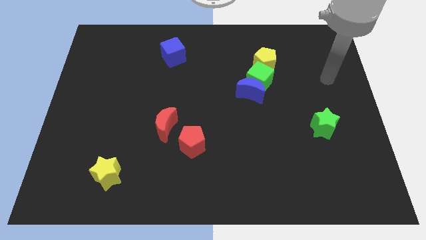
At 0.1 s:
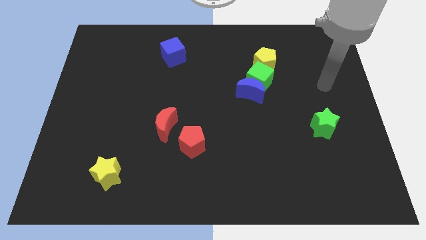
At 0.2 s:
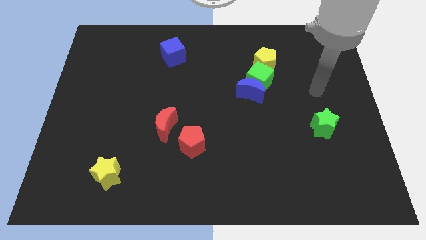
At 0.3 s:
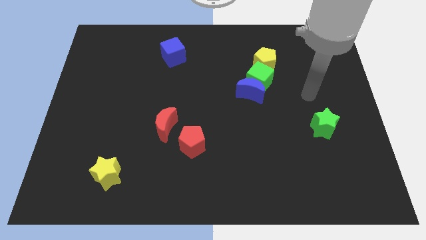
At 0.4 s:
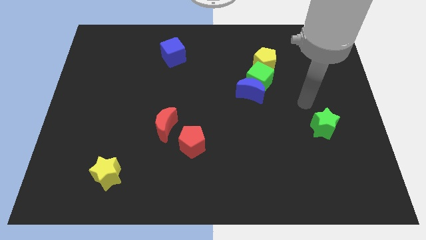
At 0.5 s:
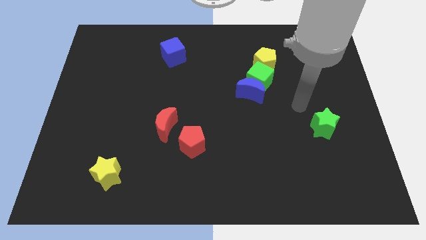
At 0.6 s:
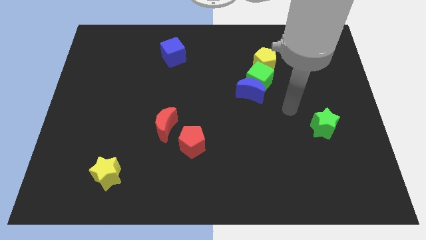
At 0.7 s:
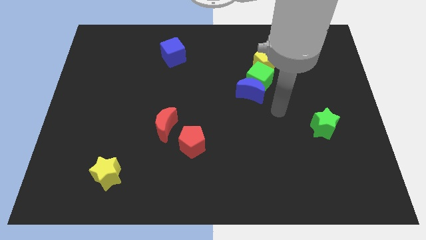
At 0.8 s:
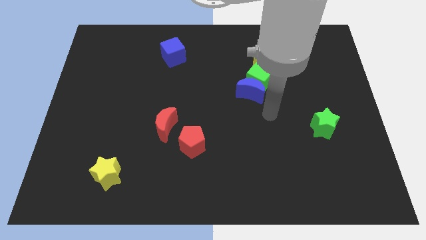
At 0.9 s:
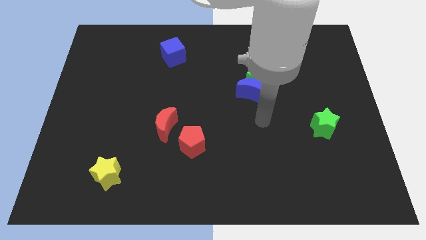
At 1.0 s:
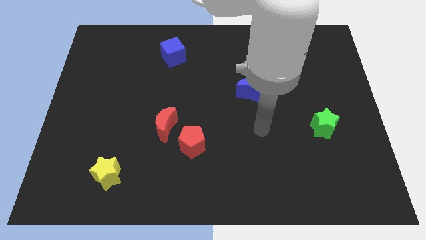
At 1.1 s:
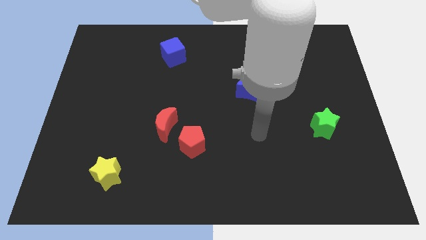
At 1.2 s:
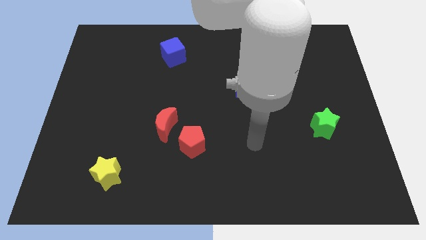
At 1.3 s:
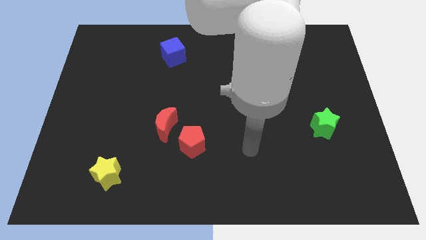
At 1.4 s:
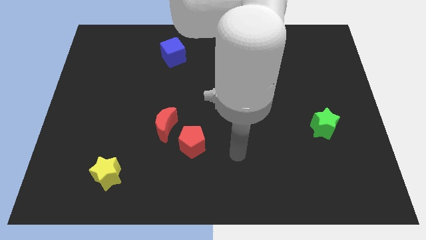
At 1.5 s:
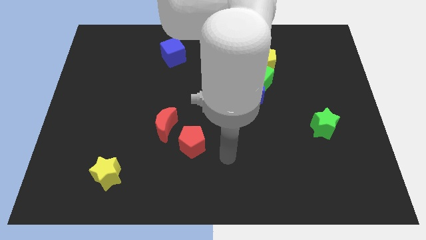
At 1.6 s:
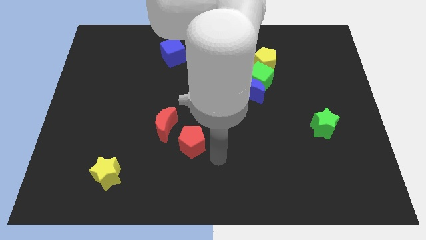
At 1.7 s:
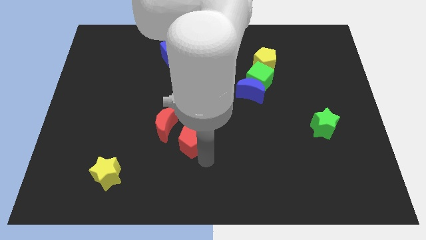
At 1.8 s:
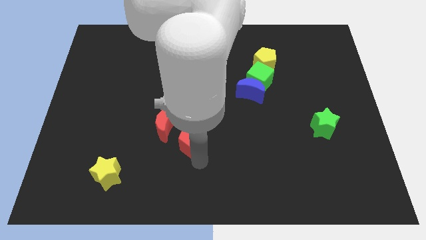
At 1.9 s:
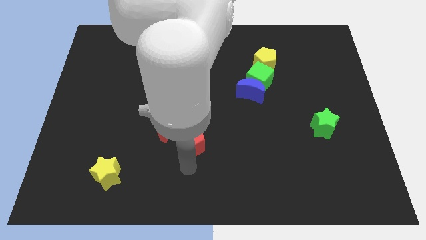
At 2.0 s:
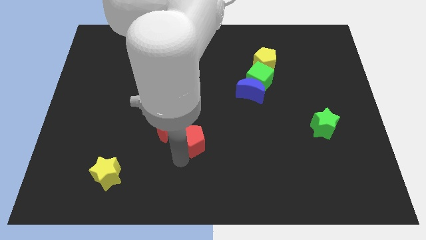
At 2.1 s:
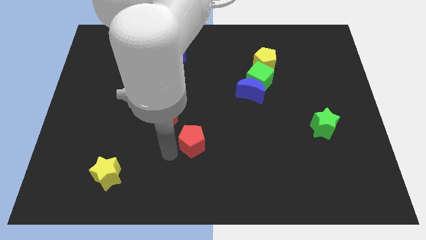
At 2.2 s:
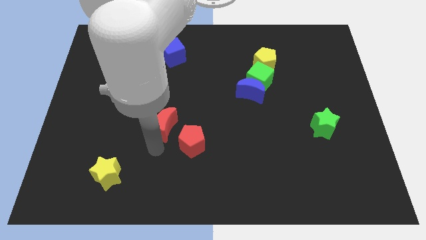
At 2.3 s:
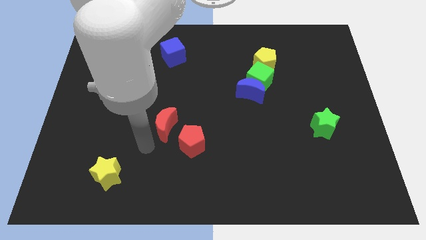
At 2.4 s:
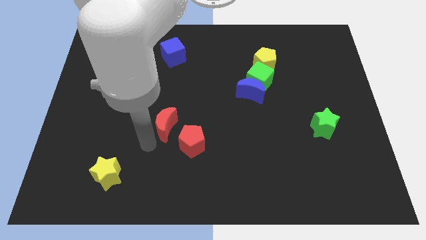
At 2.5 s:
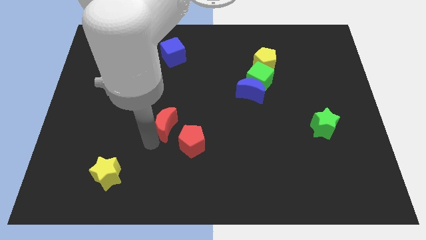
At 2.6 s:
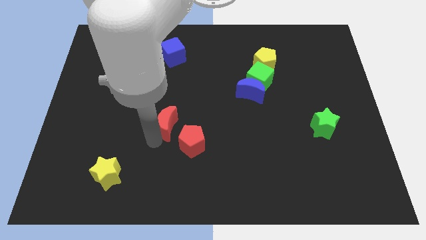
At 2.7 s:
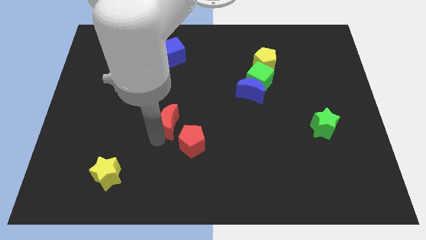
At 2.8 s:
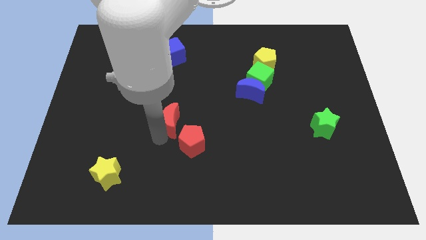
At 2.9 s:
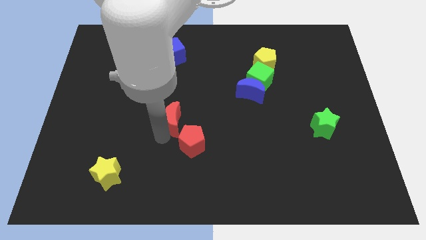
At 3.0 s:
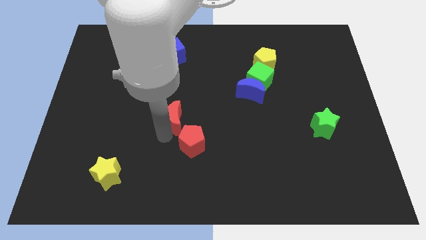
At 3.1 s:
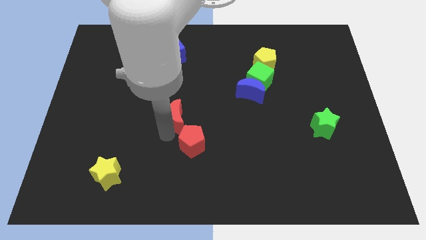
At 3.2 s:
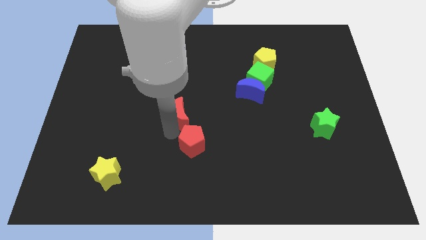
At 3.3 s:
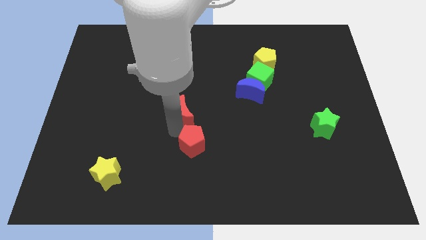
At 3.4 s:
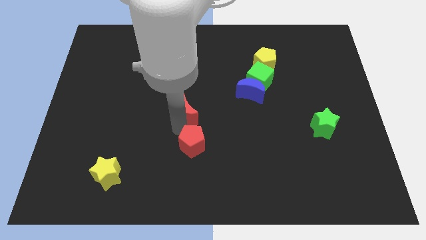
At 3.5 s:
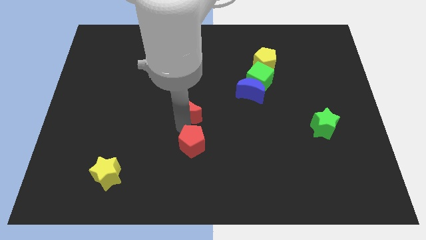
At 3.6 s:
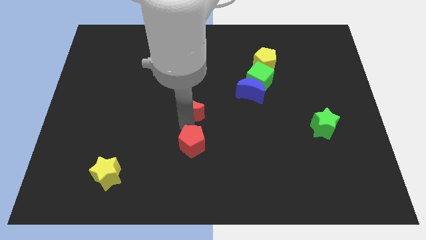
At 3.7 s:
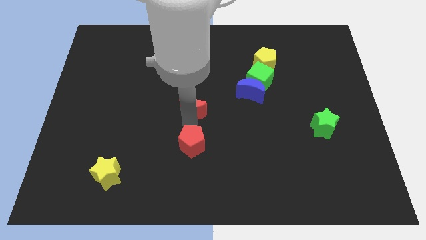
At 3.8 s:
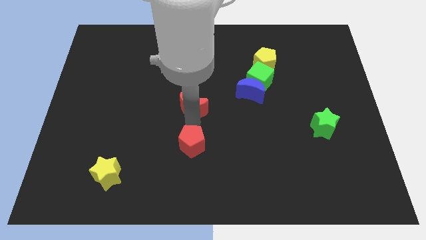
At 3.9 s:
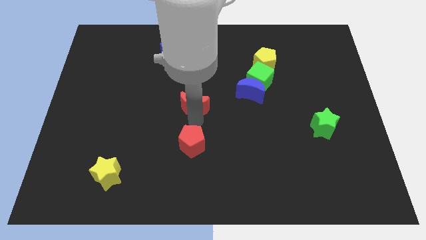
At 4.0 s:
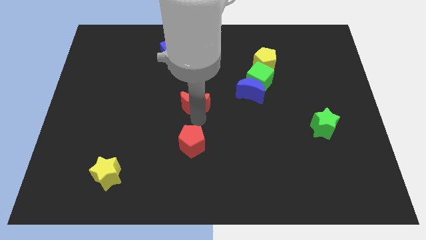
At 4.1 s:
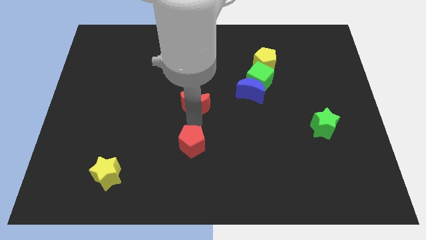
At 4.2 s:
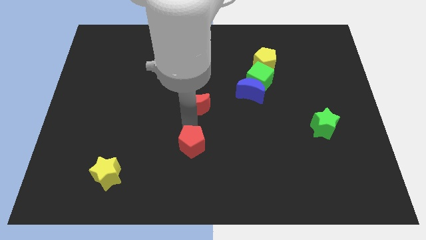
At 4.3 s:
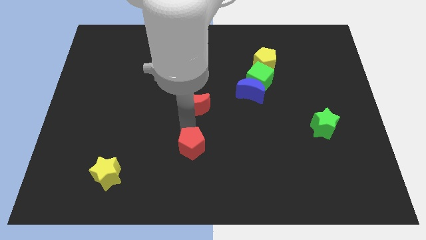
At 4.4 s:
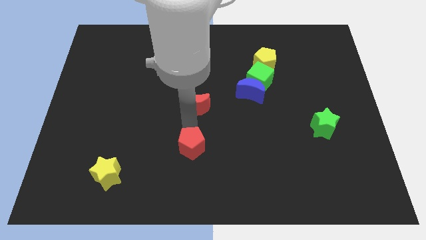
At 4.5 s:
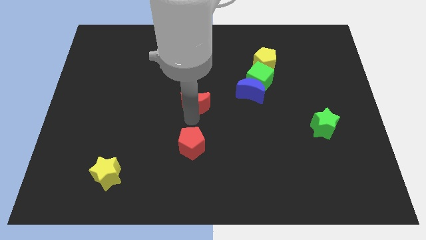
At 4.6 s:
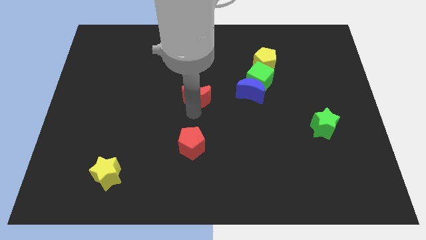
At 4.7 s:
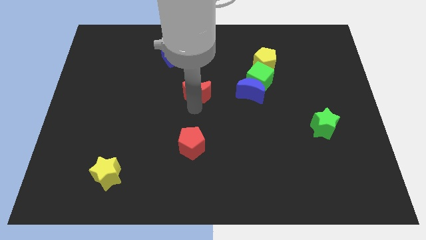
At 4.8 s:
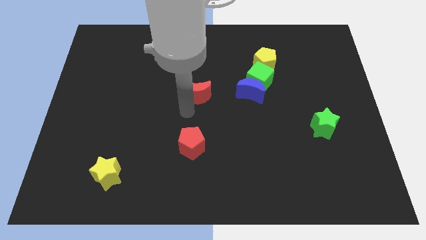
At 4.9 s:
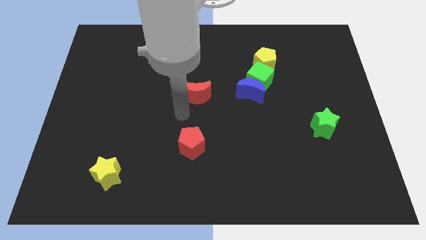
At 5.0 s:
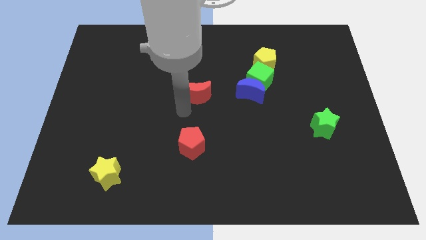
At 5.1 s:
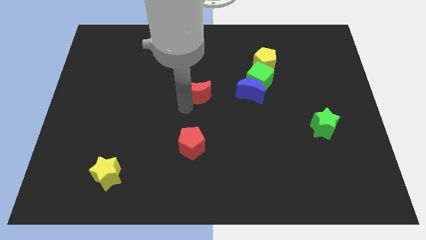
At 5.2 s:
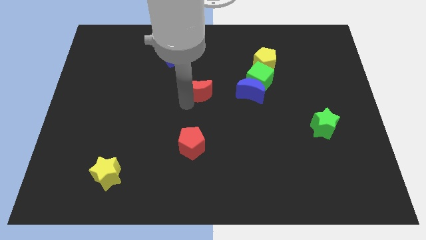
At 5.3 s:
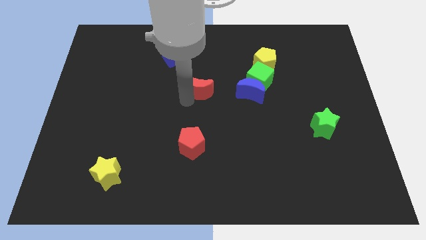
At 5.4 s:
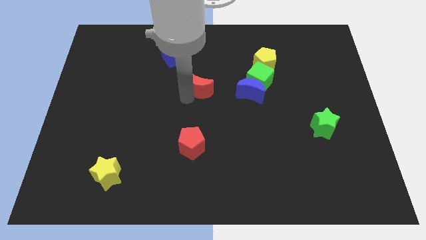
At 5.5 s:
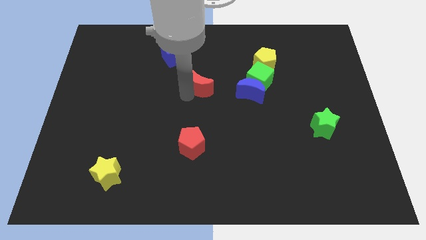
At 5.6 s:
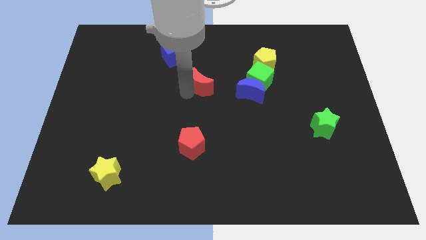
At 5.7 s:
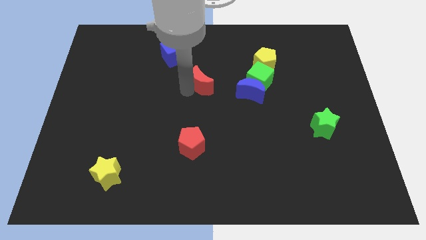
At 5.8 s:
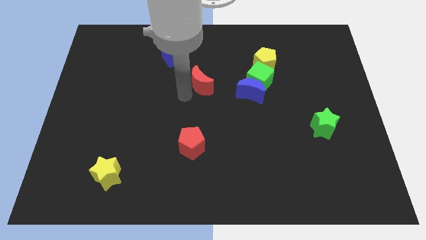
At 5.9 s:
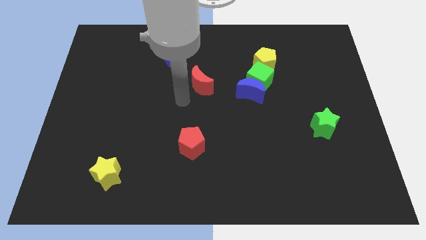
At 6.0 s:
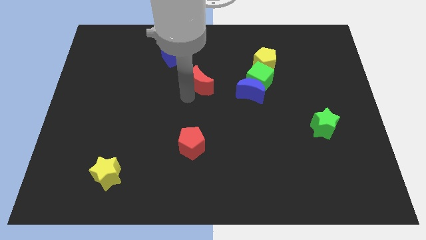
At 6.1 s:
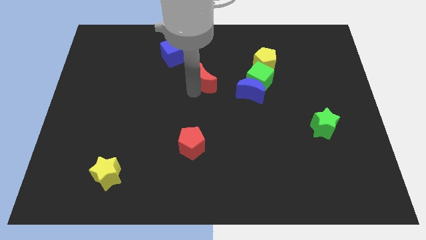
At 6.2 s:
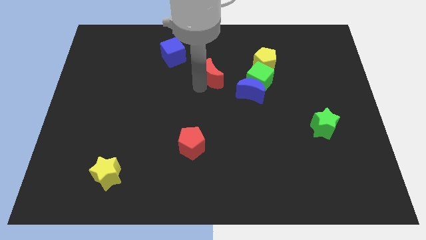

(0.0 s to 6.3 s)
put the red moon to the left side of the yellow pentagon

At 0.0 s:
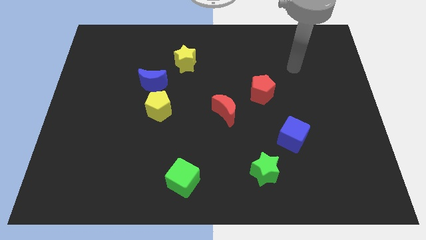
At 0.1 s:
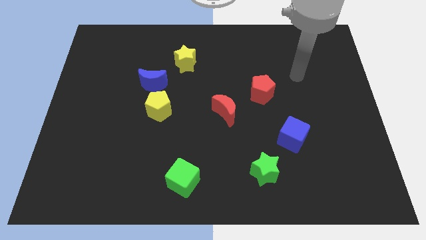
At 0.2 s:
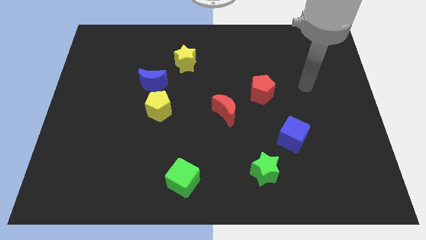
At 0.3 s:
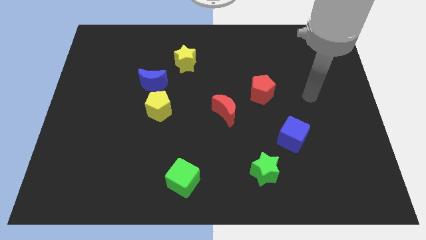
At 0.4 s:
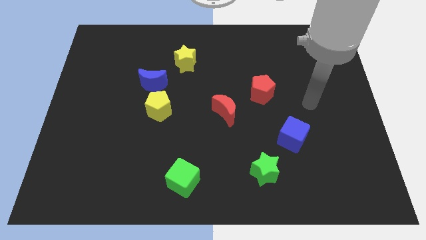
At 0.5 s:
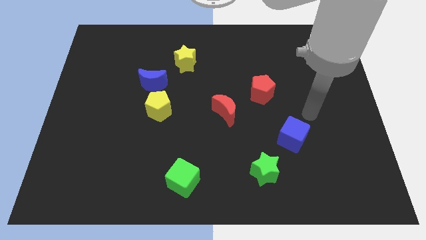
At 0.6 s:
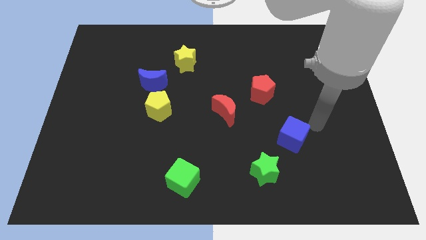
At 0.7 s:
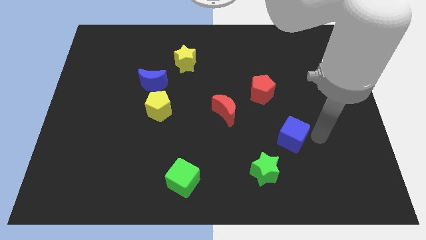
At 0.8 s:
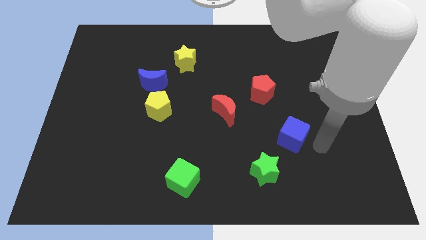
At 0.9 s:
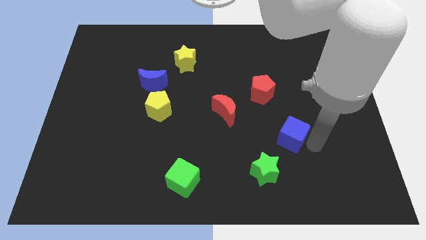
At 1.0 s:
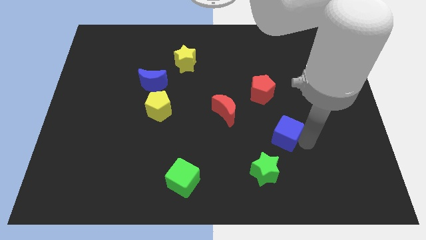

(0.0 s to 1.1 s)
push the blue cube below the red pentagon
